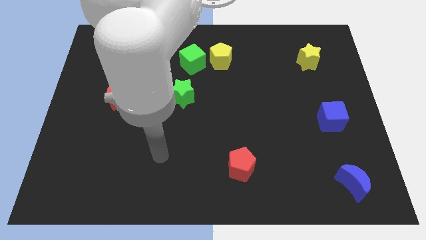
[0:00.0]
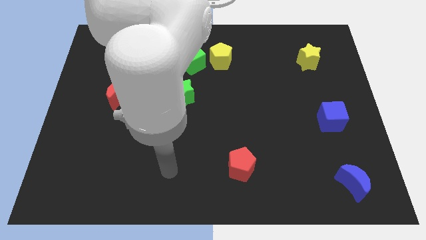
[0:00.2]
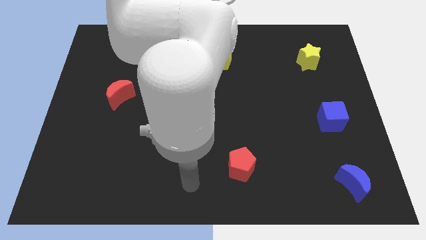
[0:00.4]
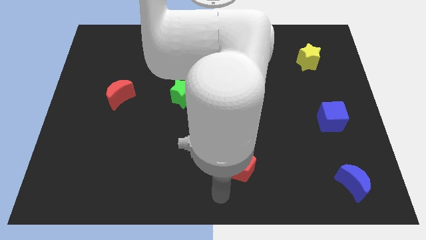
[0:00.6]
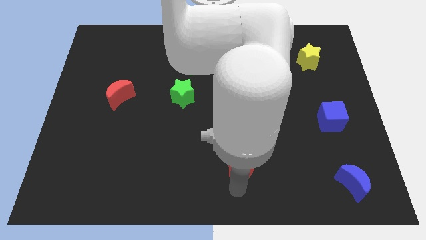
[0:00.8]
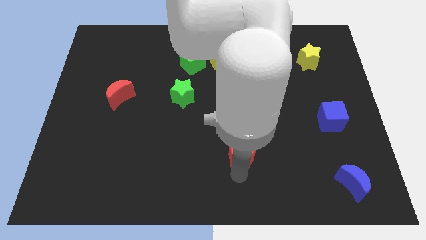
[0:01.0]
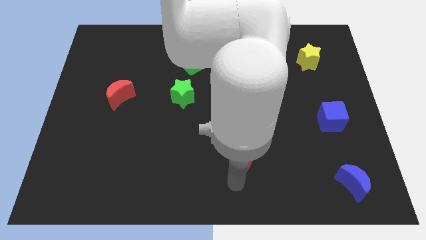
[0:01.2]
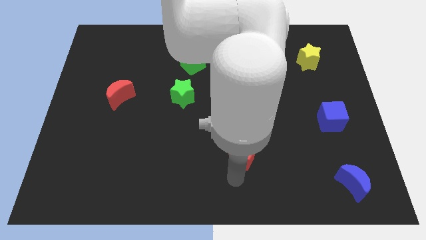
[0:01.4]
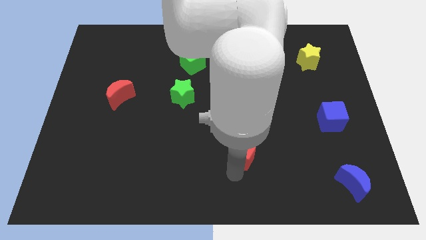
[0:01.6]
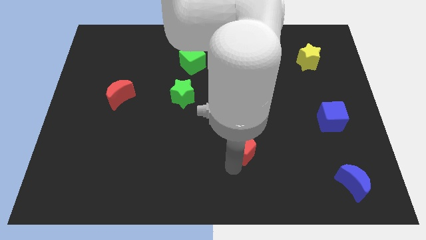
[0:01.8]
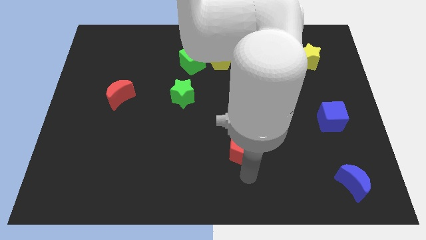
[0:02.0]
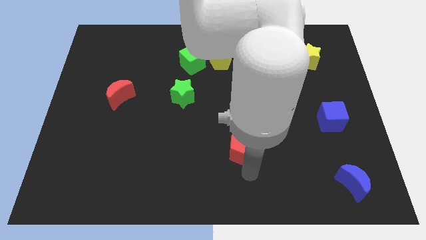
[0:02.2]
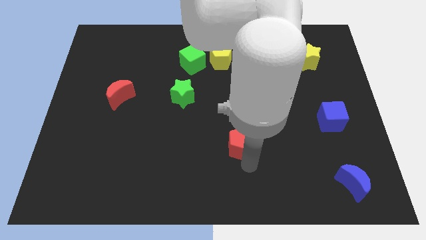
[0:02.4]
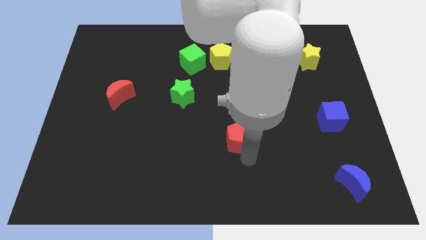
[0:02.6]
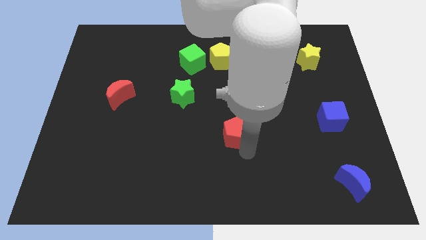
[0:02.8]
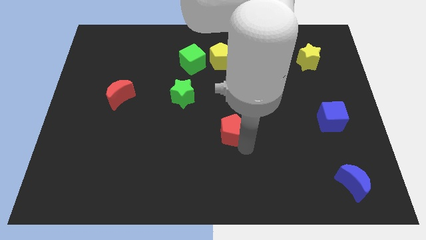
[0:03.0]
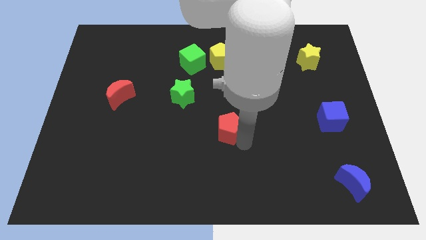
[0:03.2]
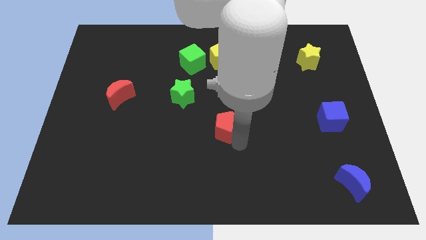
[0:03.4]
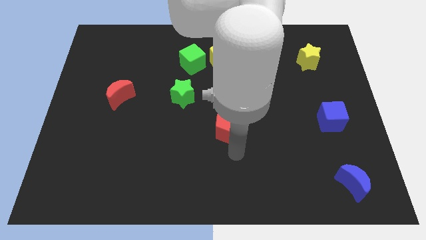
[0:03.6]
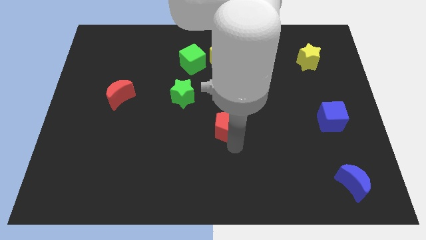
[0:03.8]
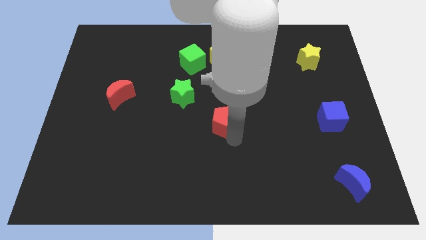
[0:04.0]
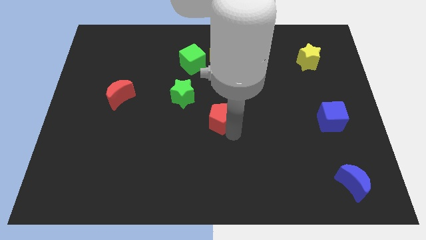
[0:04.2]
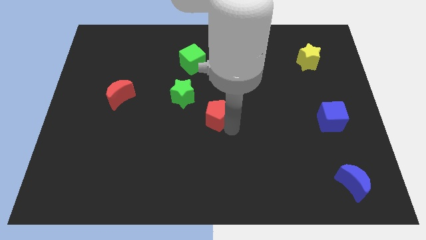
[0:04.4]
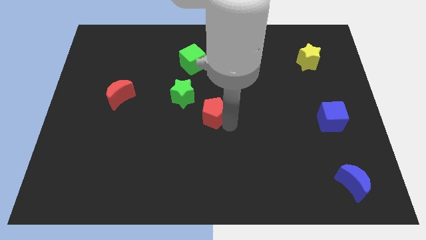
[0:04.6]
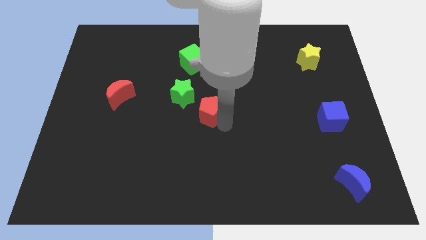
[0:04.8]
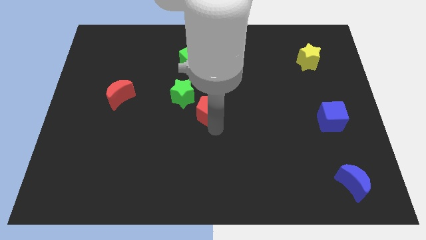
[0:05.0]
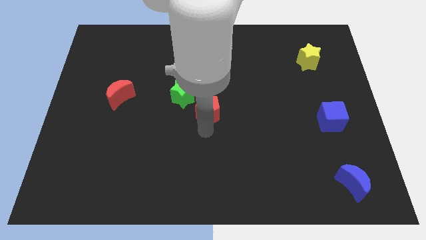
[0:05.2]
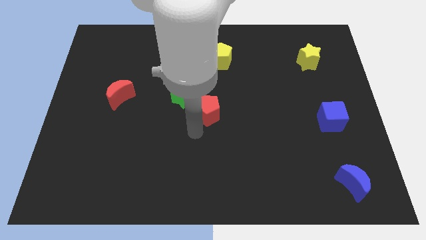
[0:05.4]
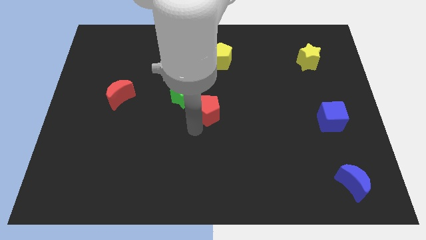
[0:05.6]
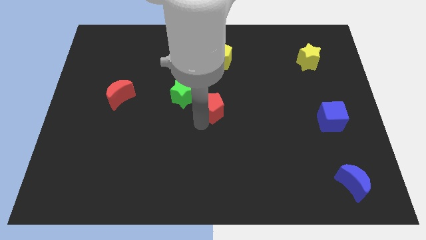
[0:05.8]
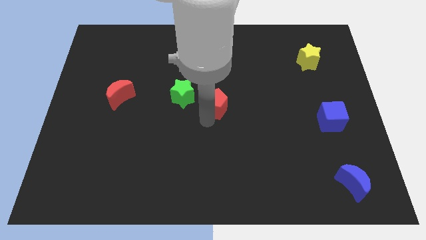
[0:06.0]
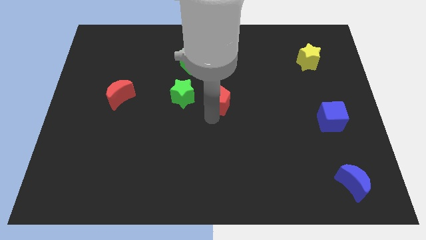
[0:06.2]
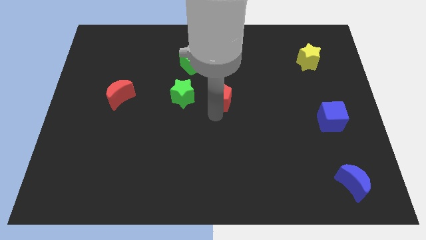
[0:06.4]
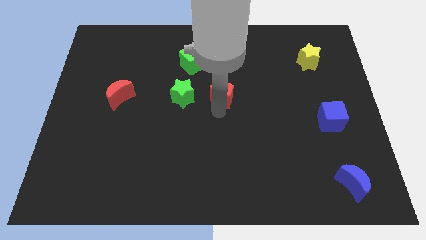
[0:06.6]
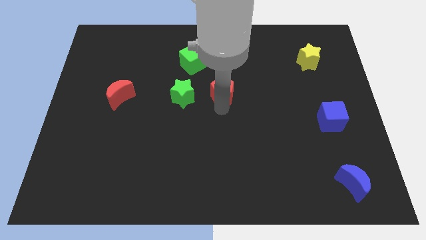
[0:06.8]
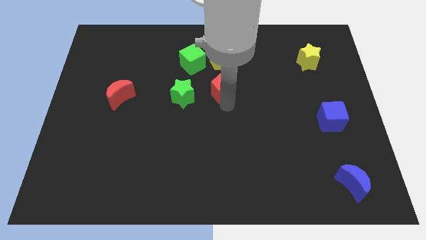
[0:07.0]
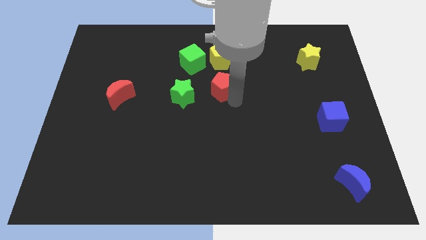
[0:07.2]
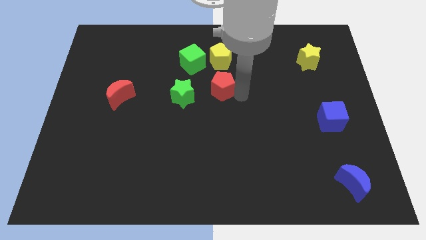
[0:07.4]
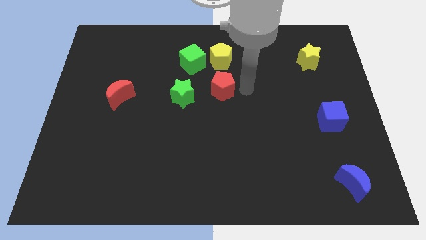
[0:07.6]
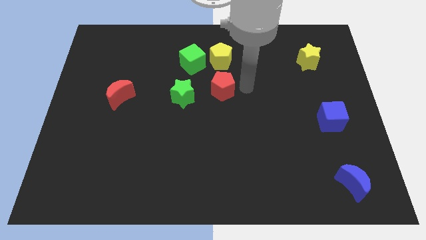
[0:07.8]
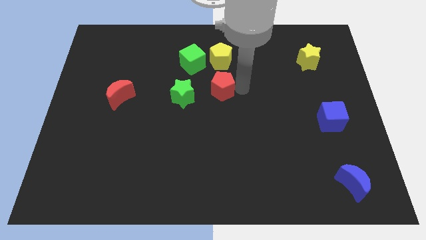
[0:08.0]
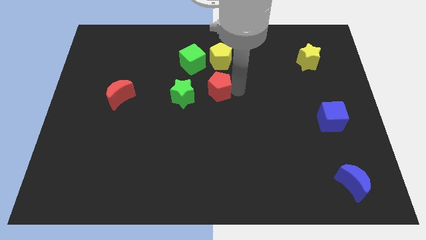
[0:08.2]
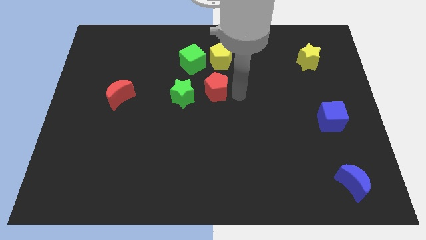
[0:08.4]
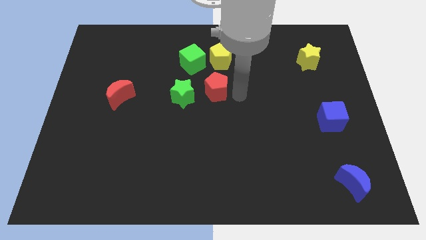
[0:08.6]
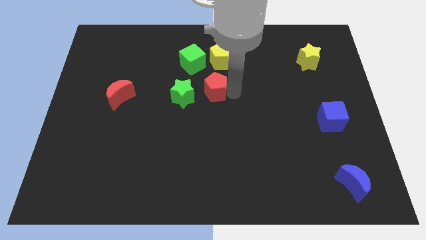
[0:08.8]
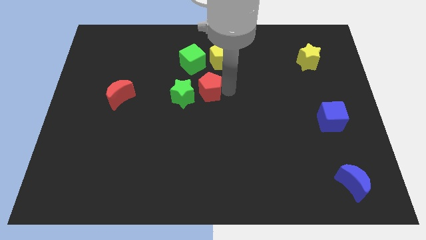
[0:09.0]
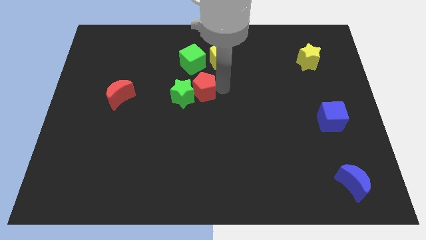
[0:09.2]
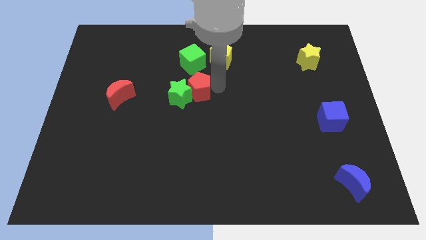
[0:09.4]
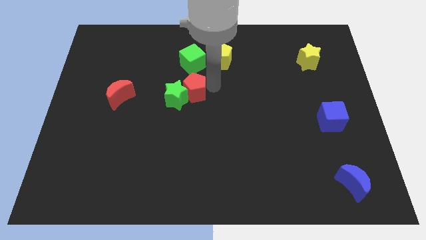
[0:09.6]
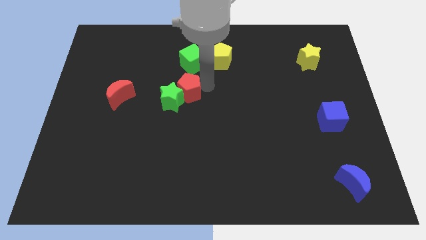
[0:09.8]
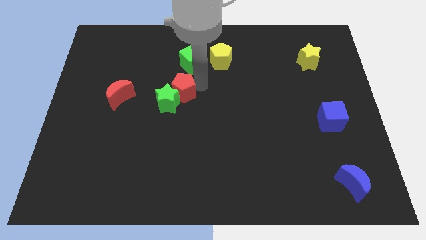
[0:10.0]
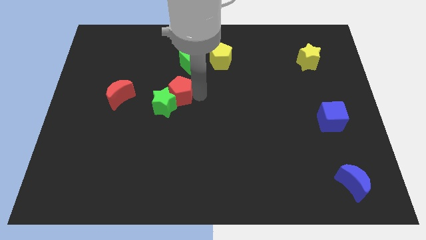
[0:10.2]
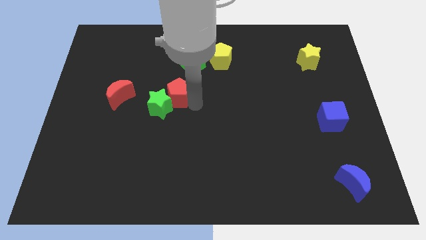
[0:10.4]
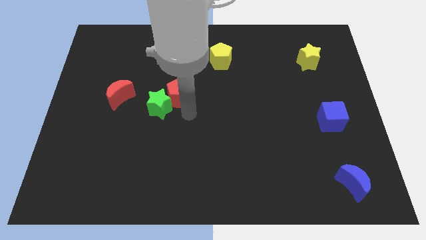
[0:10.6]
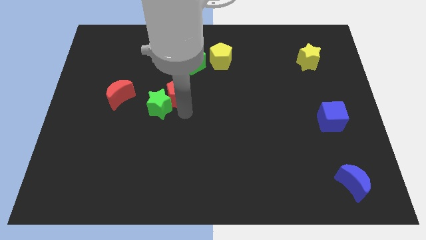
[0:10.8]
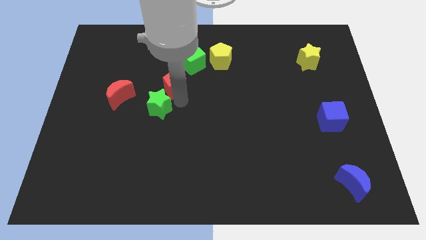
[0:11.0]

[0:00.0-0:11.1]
push the red pentagon diagonally down and to the left of the green cube
